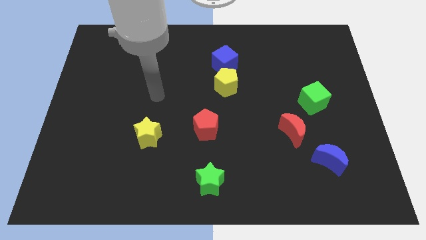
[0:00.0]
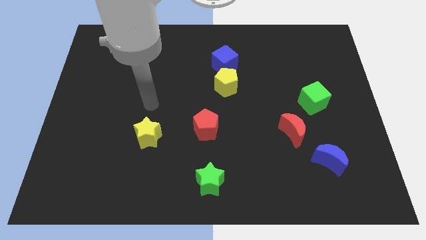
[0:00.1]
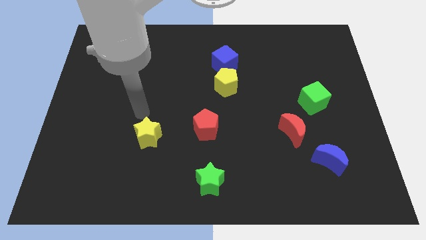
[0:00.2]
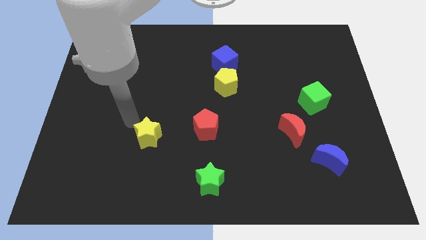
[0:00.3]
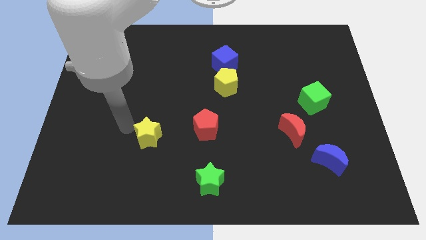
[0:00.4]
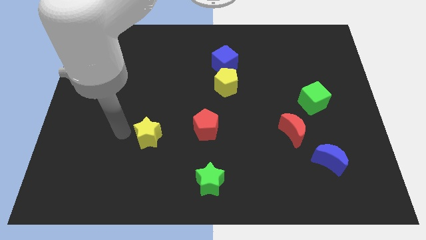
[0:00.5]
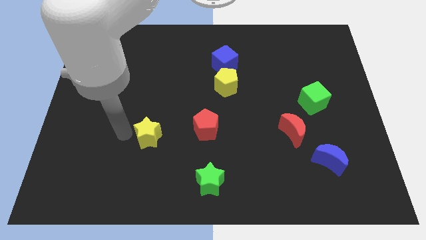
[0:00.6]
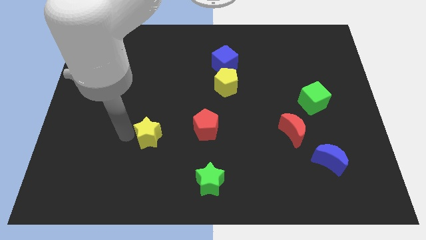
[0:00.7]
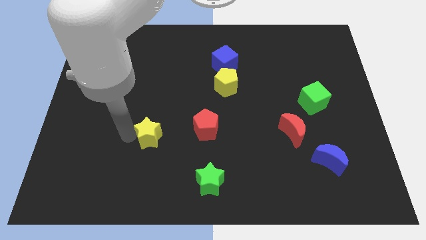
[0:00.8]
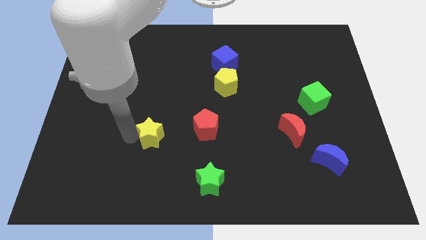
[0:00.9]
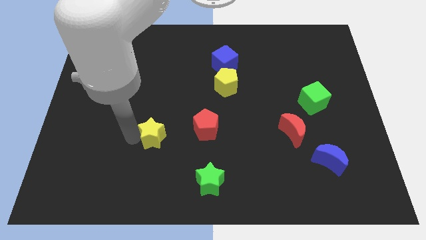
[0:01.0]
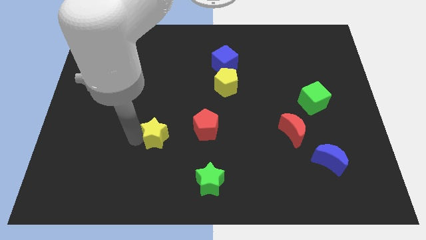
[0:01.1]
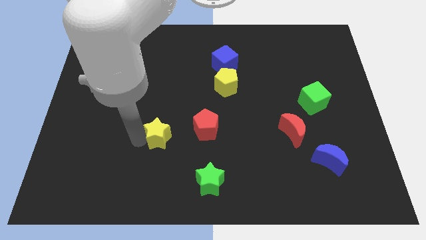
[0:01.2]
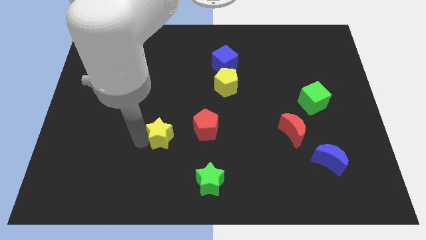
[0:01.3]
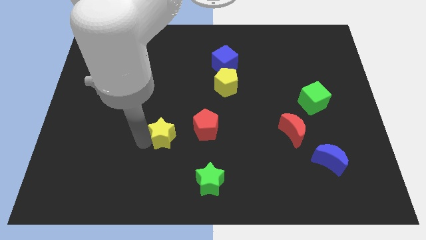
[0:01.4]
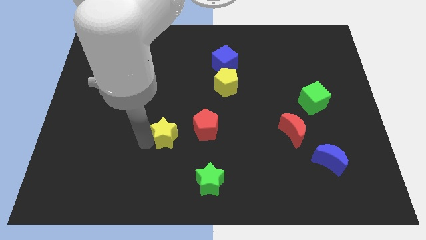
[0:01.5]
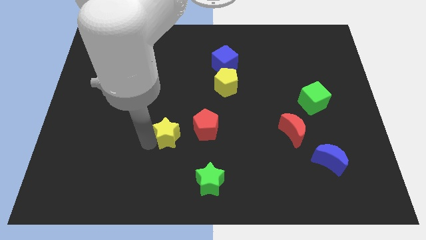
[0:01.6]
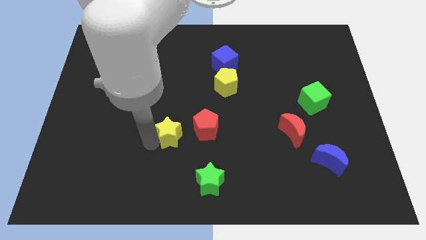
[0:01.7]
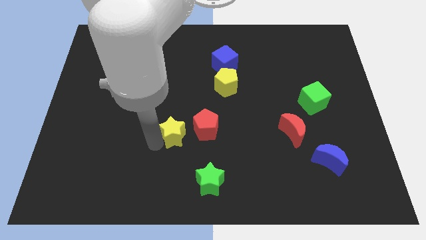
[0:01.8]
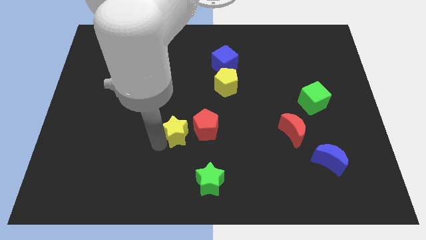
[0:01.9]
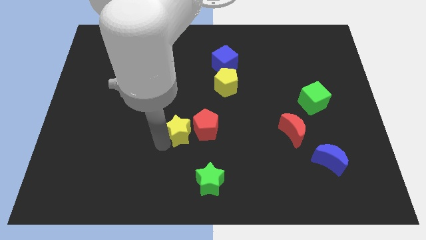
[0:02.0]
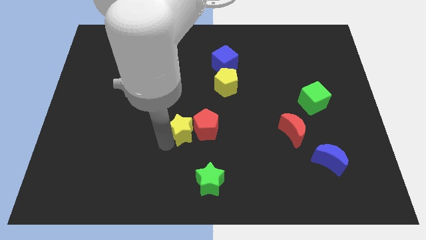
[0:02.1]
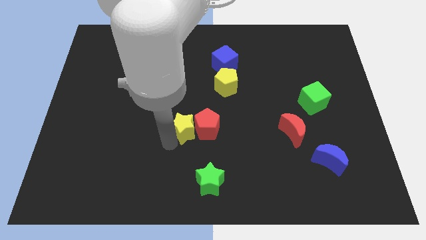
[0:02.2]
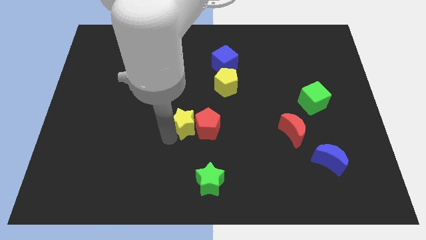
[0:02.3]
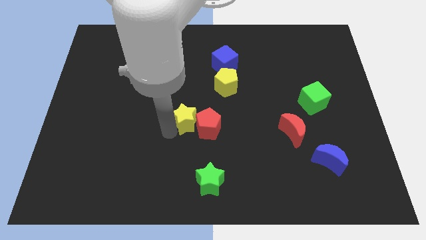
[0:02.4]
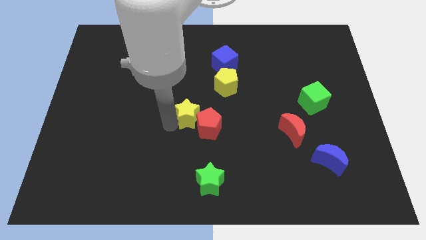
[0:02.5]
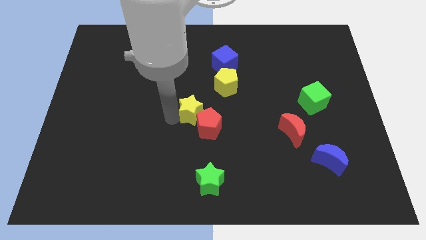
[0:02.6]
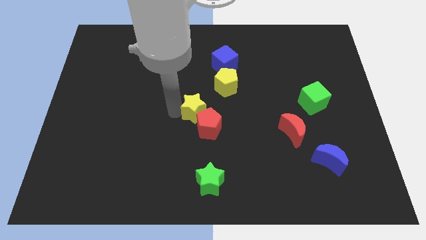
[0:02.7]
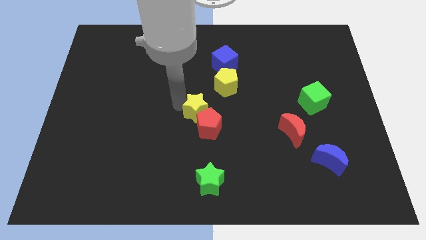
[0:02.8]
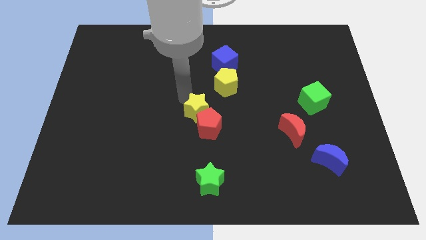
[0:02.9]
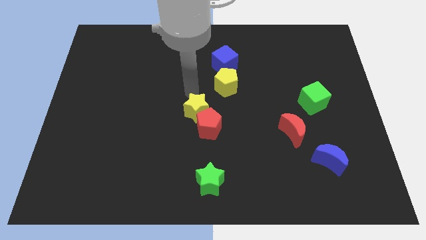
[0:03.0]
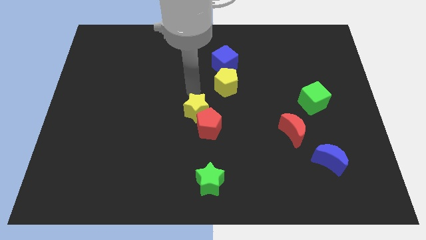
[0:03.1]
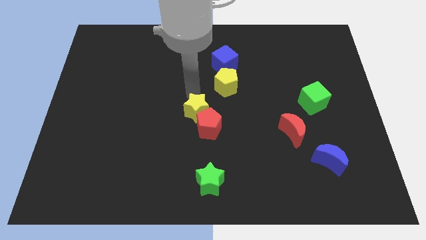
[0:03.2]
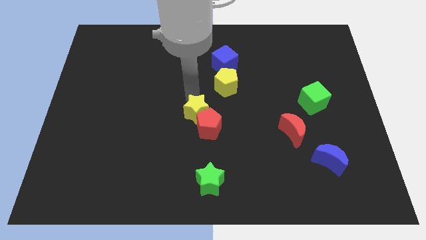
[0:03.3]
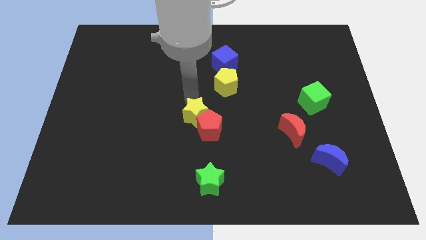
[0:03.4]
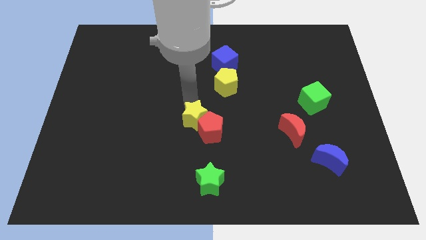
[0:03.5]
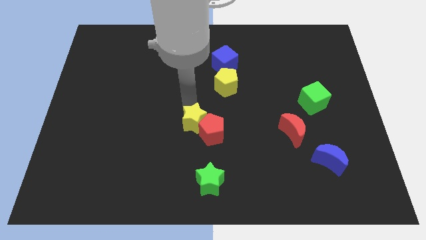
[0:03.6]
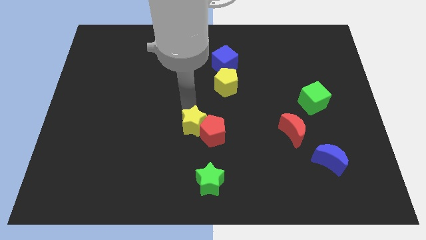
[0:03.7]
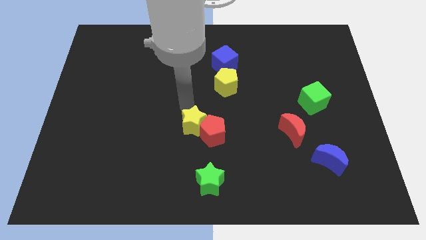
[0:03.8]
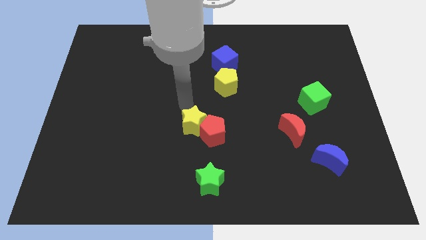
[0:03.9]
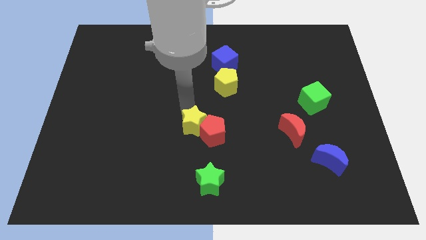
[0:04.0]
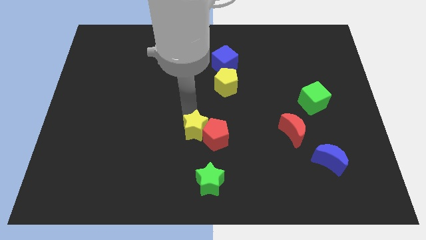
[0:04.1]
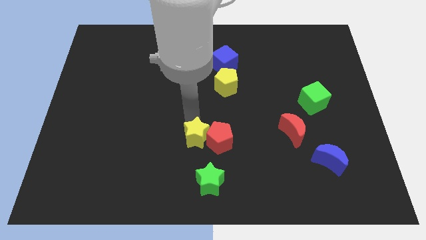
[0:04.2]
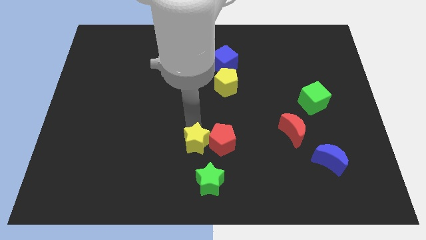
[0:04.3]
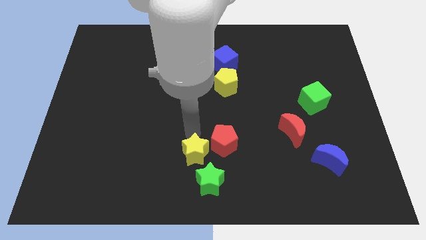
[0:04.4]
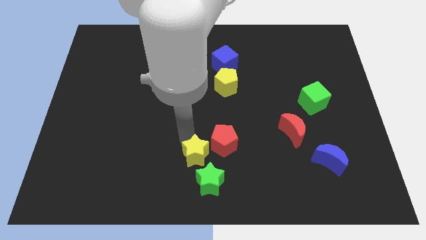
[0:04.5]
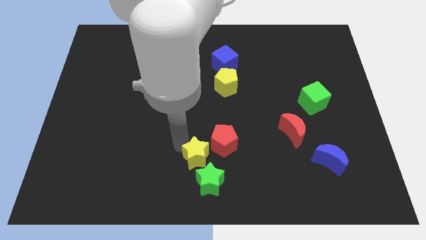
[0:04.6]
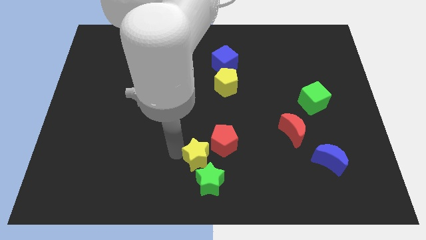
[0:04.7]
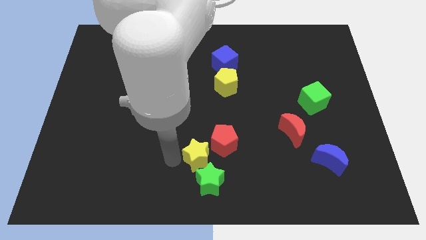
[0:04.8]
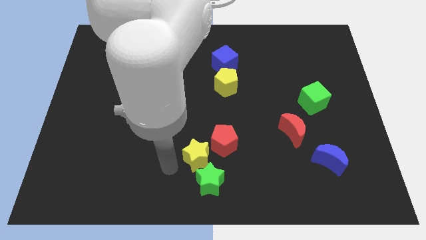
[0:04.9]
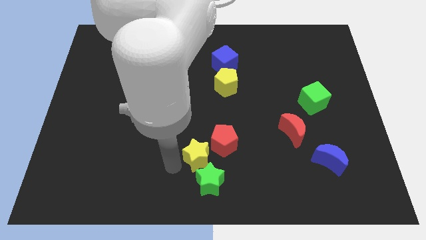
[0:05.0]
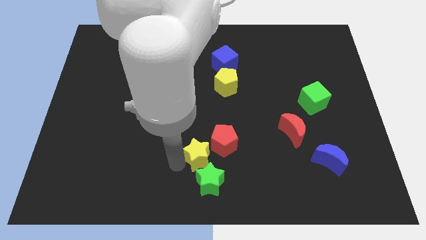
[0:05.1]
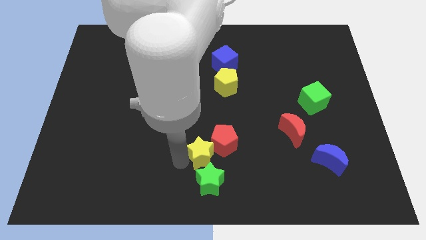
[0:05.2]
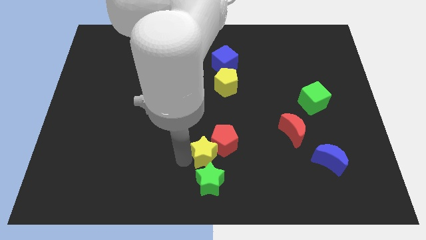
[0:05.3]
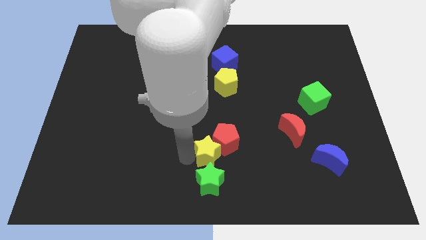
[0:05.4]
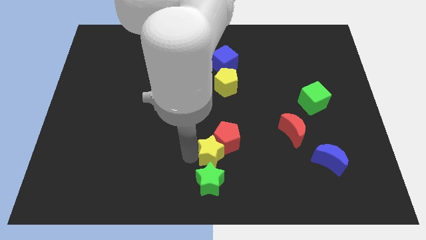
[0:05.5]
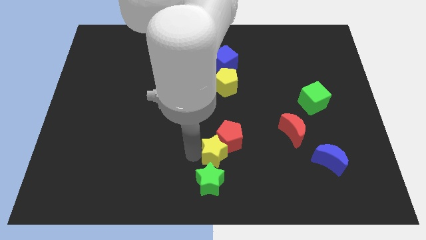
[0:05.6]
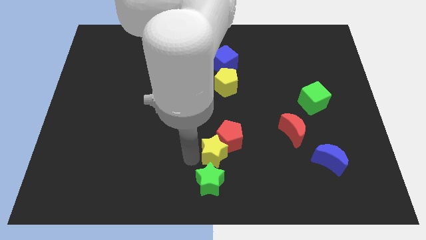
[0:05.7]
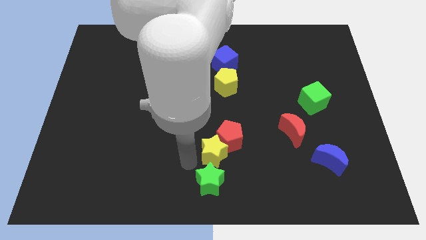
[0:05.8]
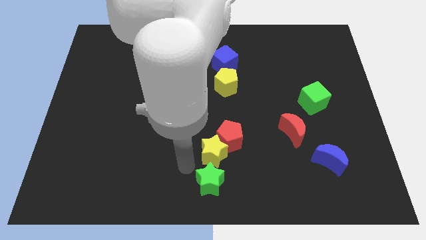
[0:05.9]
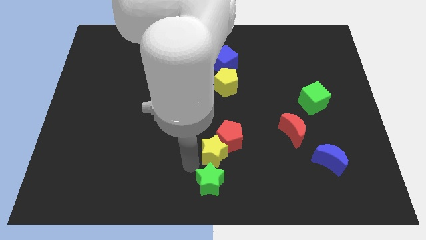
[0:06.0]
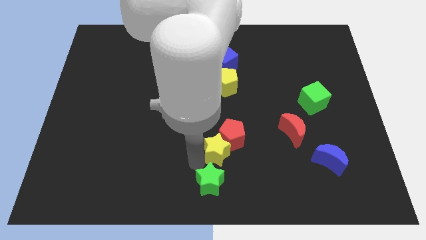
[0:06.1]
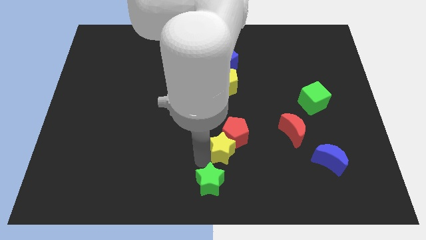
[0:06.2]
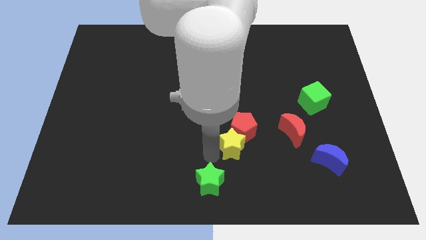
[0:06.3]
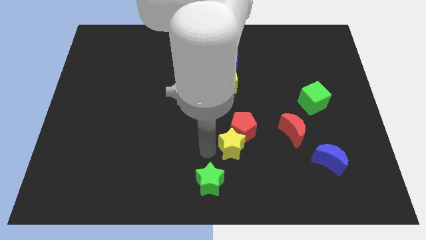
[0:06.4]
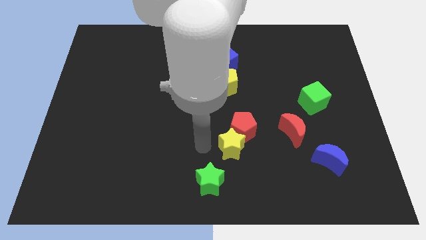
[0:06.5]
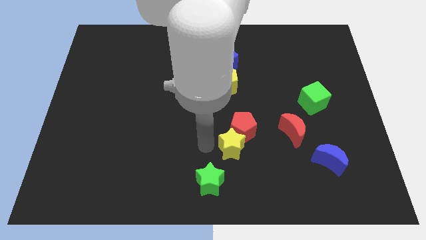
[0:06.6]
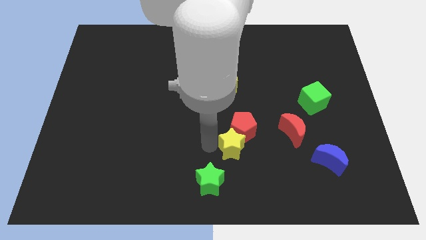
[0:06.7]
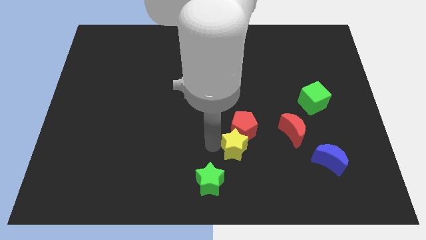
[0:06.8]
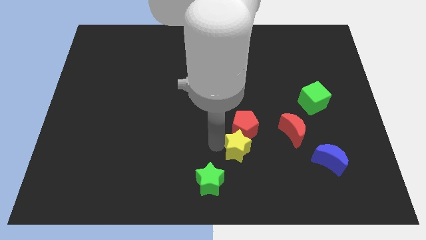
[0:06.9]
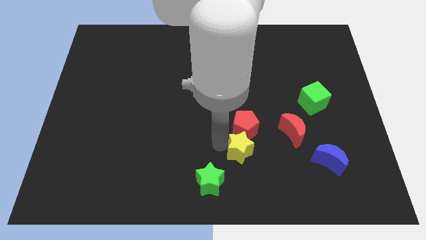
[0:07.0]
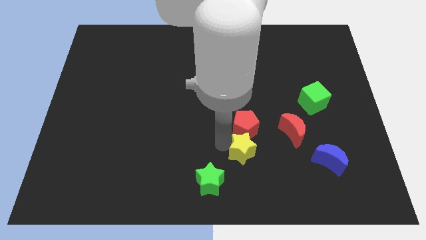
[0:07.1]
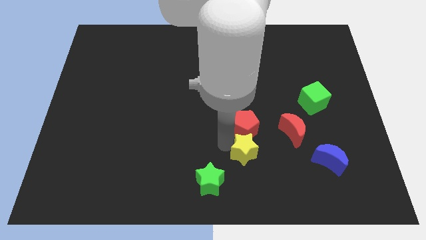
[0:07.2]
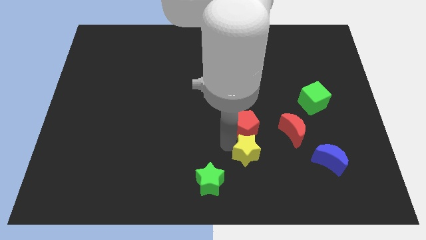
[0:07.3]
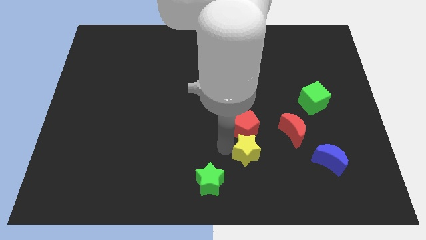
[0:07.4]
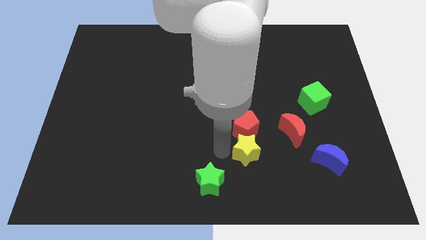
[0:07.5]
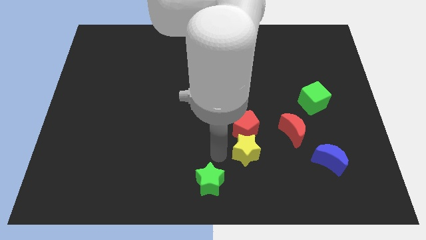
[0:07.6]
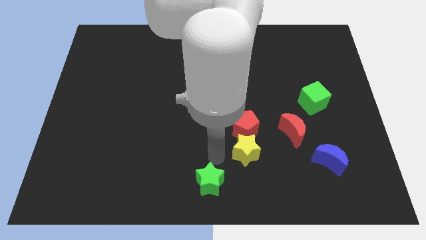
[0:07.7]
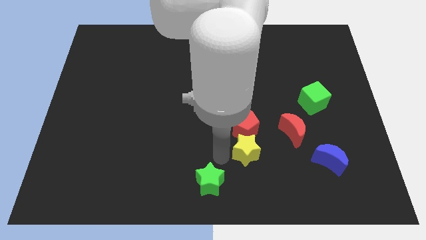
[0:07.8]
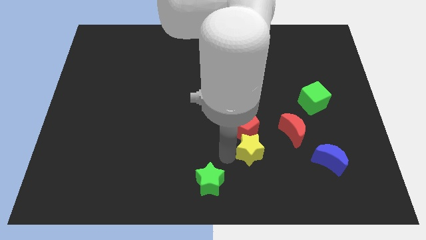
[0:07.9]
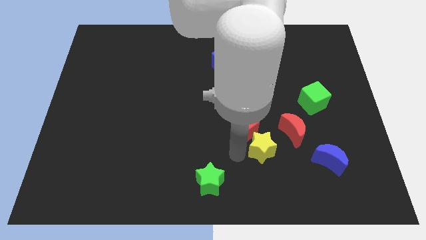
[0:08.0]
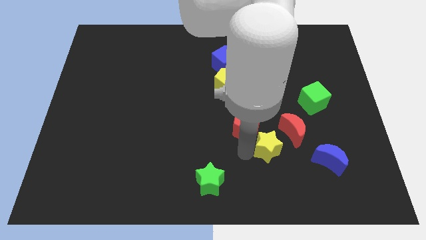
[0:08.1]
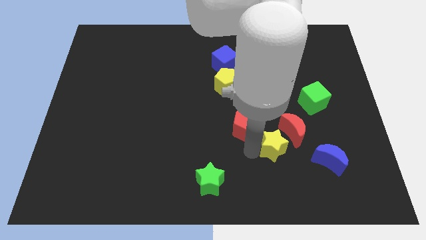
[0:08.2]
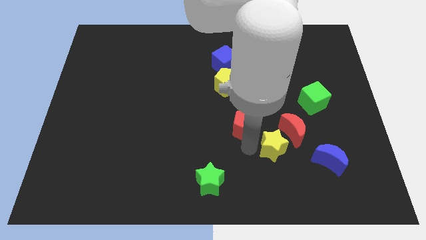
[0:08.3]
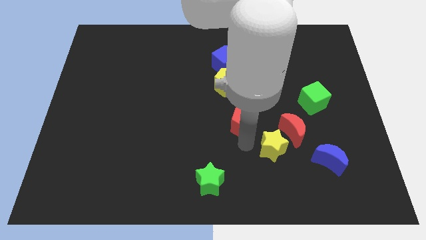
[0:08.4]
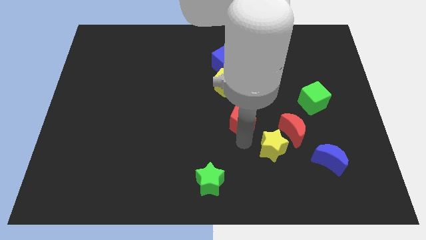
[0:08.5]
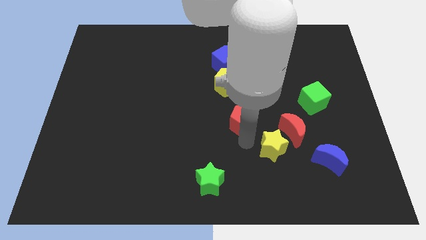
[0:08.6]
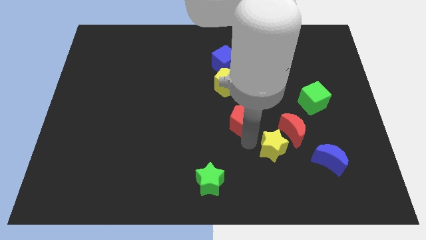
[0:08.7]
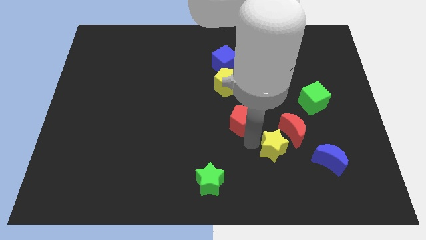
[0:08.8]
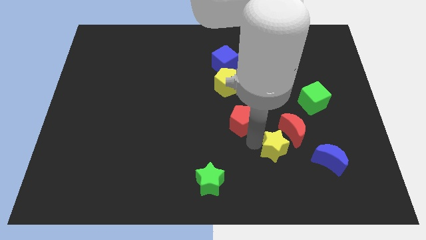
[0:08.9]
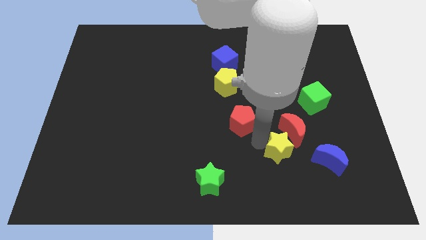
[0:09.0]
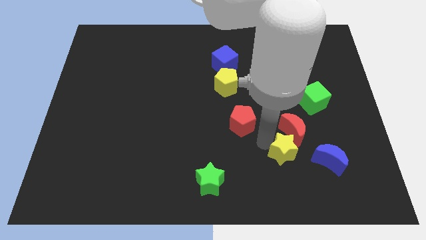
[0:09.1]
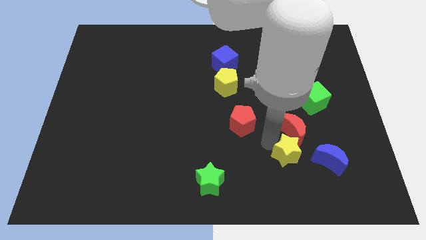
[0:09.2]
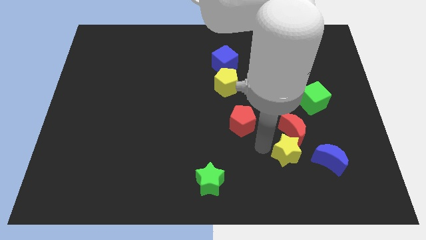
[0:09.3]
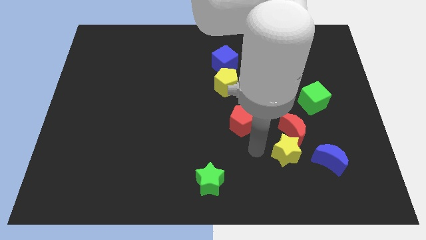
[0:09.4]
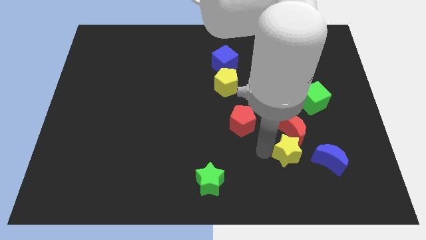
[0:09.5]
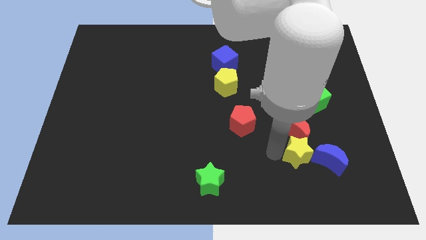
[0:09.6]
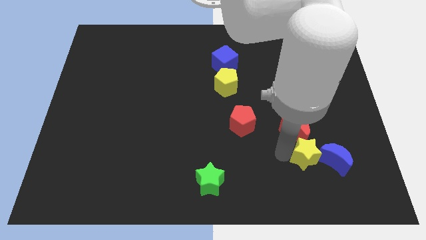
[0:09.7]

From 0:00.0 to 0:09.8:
move the yellow star next to the blue moon
